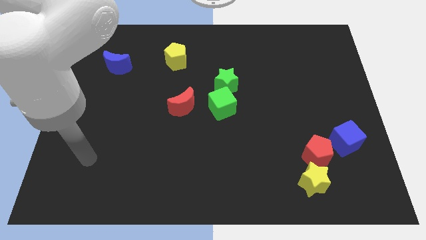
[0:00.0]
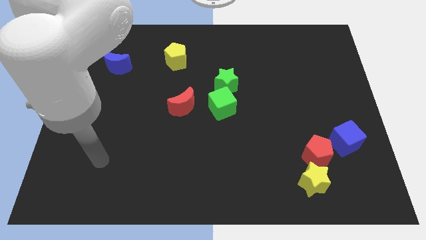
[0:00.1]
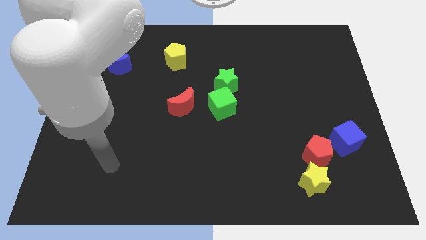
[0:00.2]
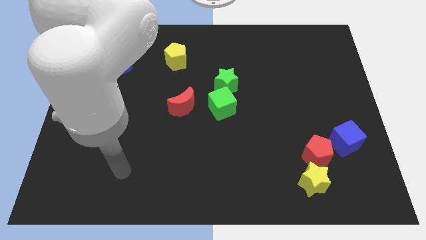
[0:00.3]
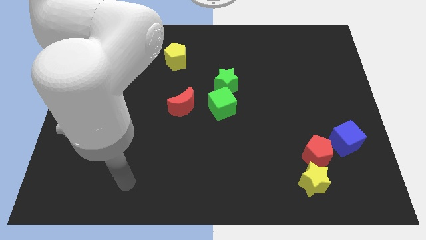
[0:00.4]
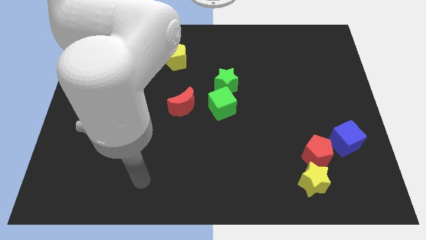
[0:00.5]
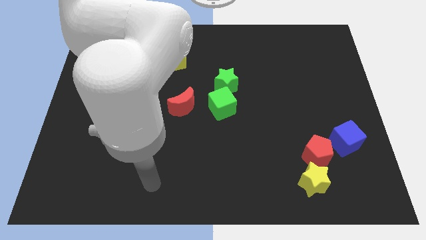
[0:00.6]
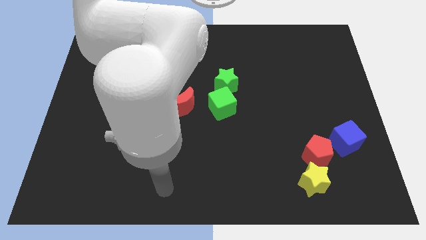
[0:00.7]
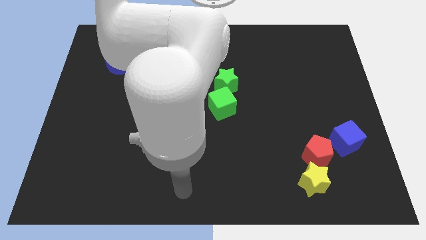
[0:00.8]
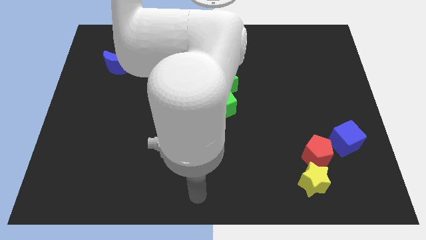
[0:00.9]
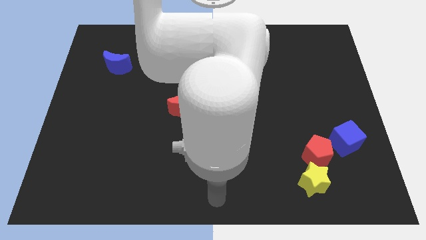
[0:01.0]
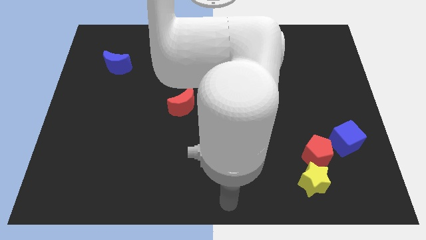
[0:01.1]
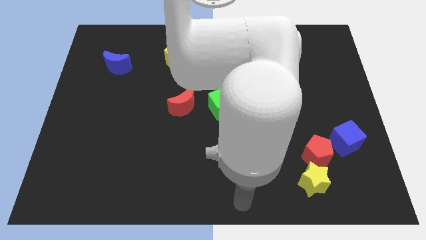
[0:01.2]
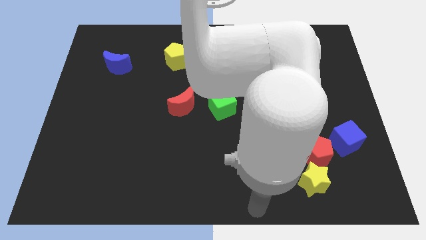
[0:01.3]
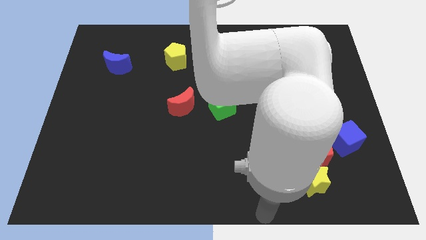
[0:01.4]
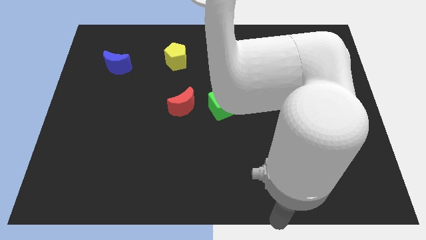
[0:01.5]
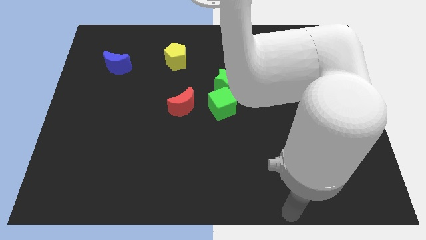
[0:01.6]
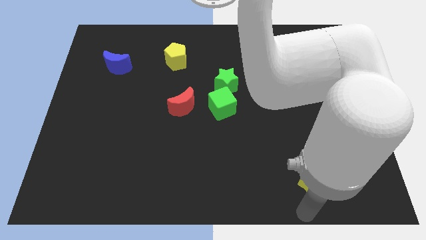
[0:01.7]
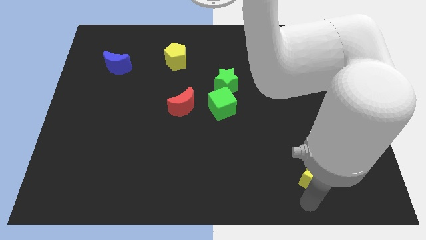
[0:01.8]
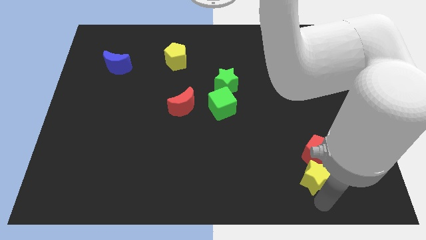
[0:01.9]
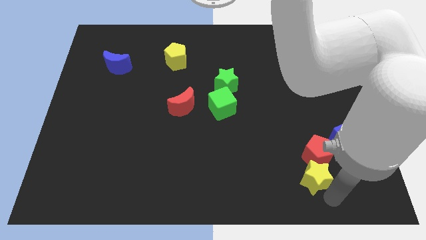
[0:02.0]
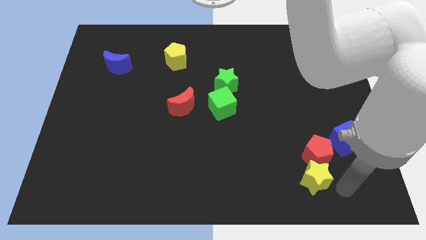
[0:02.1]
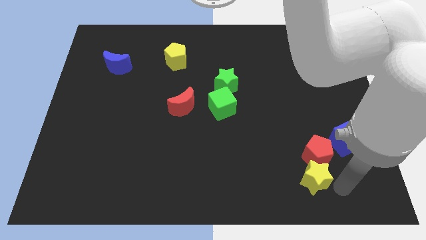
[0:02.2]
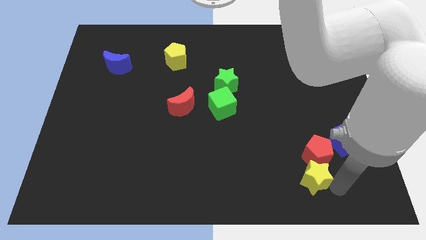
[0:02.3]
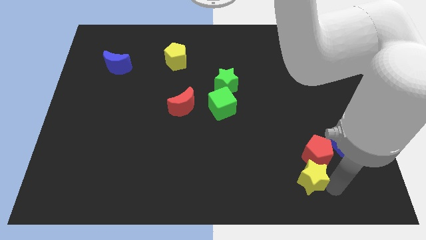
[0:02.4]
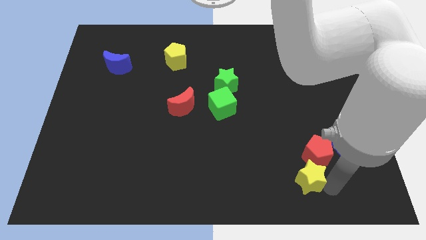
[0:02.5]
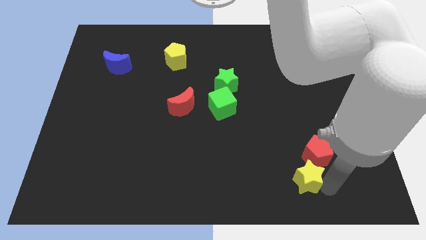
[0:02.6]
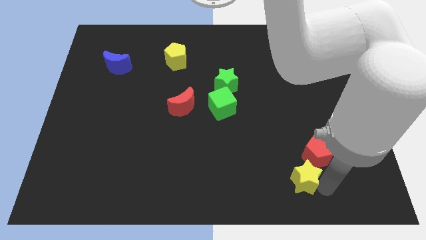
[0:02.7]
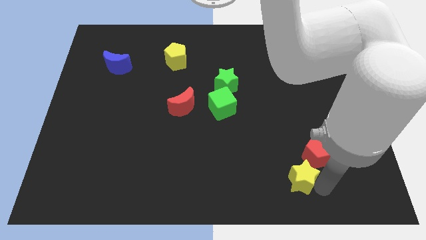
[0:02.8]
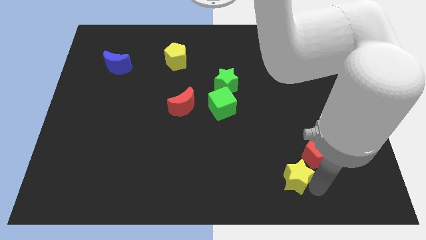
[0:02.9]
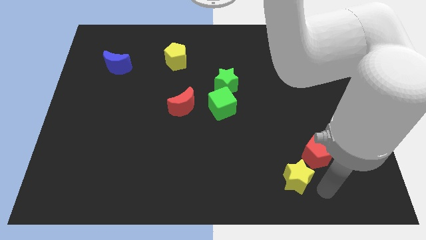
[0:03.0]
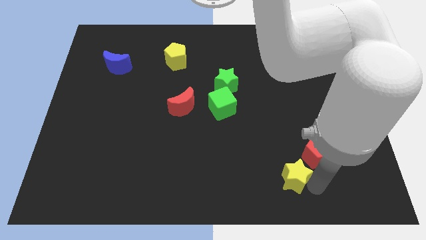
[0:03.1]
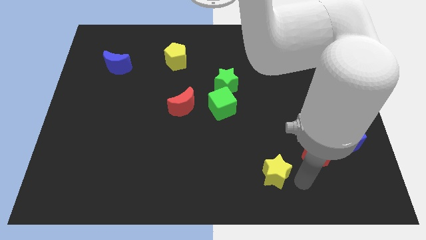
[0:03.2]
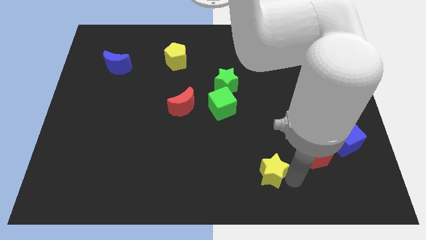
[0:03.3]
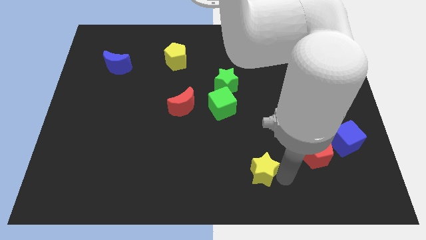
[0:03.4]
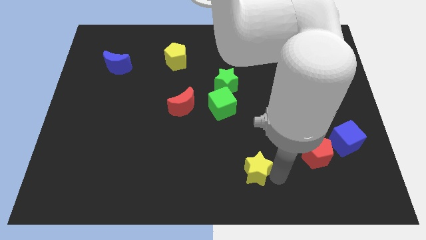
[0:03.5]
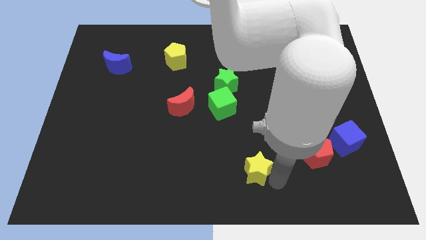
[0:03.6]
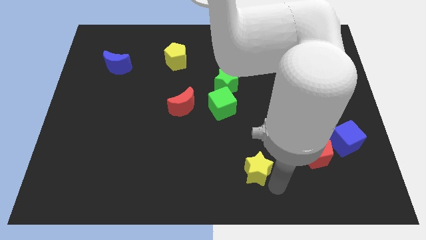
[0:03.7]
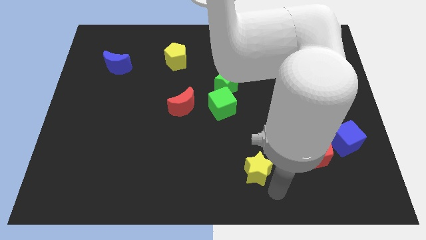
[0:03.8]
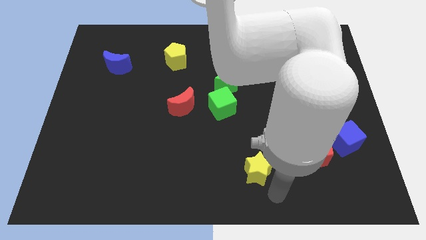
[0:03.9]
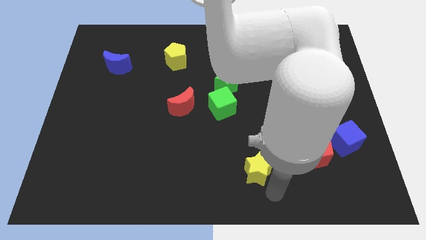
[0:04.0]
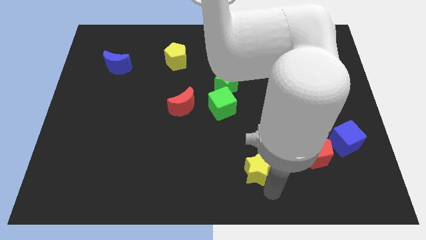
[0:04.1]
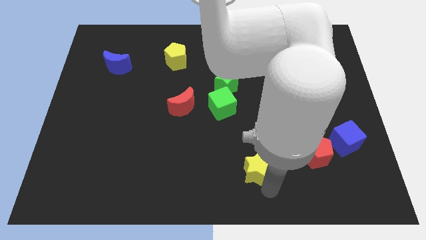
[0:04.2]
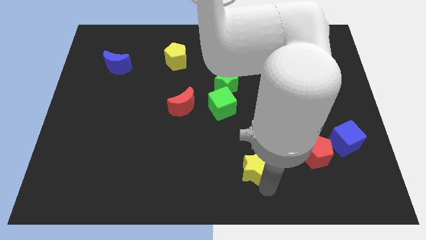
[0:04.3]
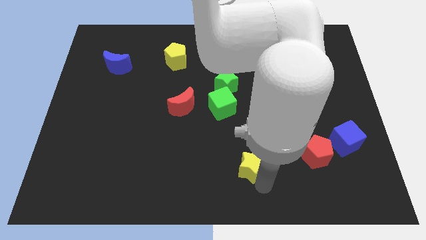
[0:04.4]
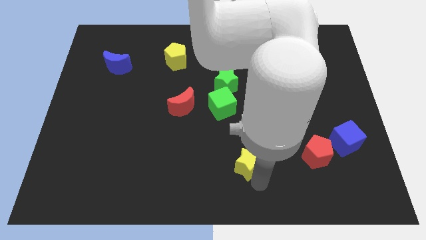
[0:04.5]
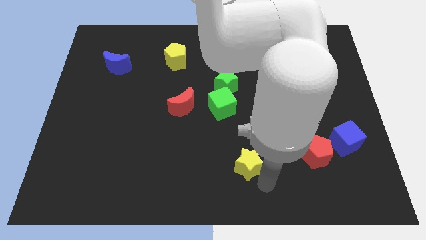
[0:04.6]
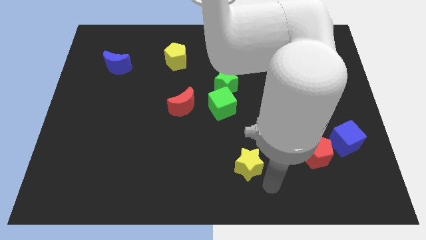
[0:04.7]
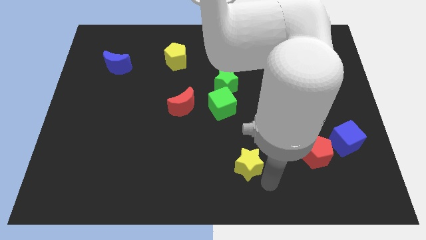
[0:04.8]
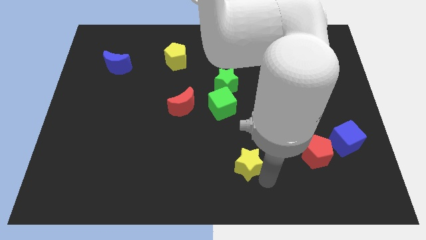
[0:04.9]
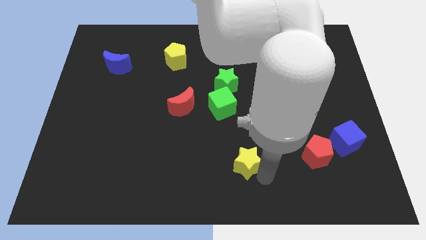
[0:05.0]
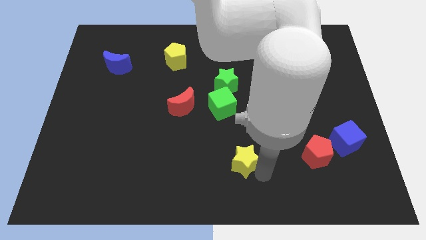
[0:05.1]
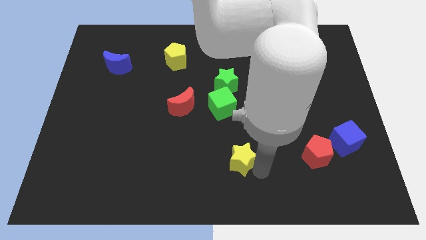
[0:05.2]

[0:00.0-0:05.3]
move the yellow star to the bottom of the green cube

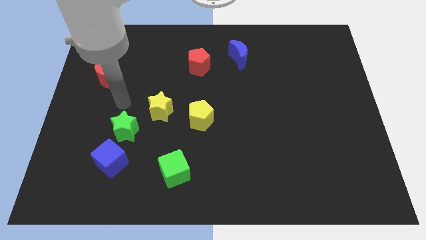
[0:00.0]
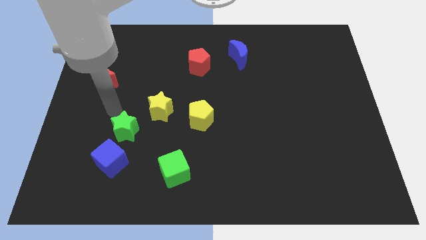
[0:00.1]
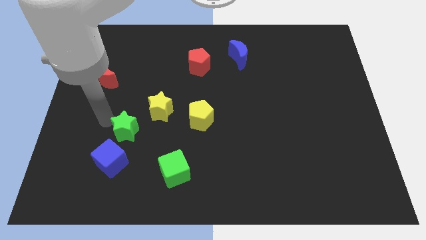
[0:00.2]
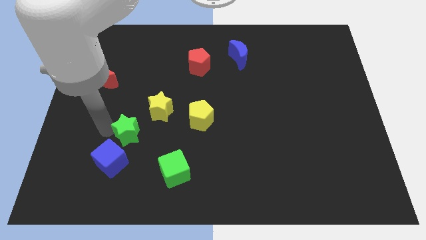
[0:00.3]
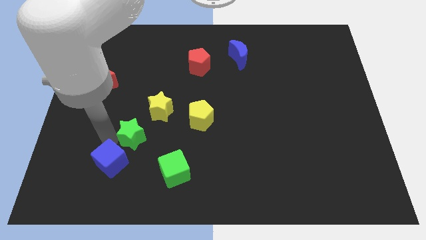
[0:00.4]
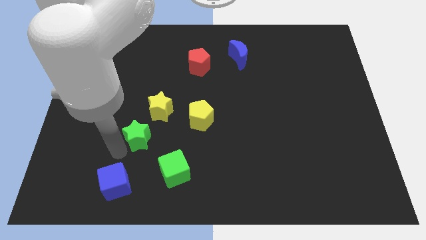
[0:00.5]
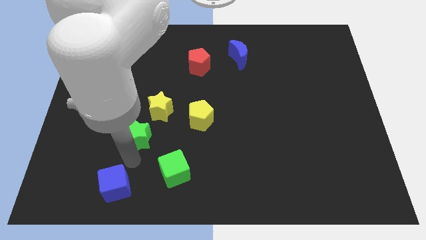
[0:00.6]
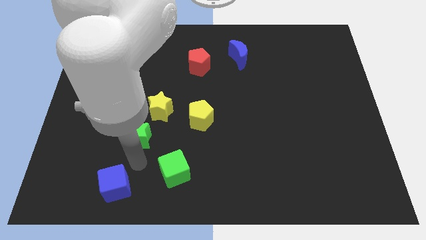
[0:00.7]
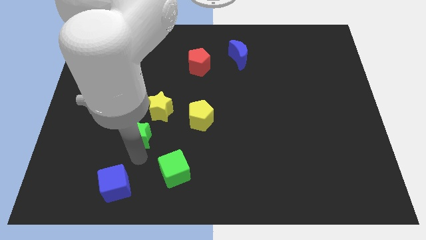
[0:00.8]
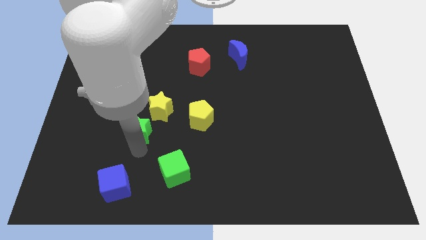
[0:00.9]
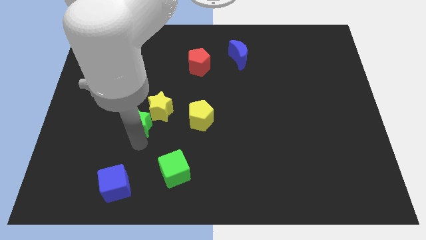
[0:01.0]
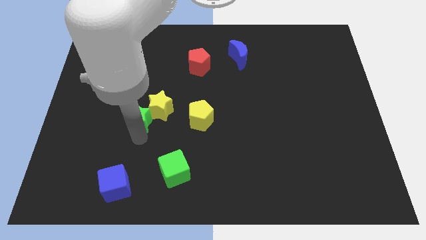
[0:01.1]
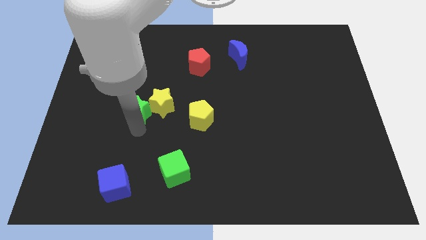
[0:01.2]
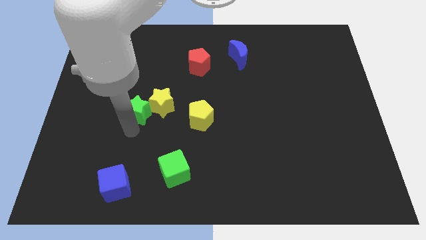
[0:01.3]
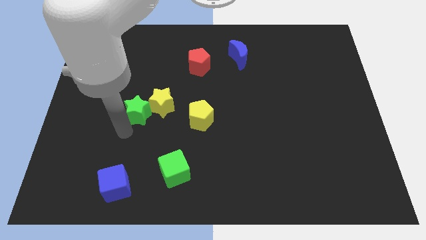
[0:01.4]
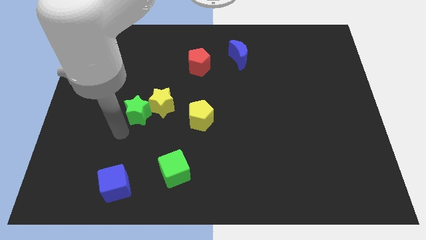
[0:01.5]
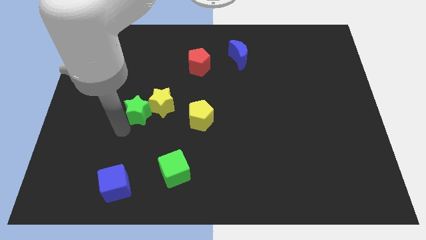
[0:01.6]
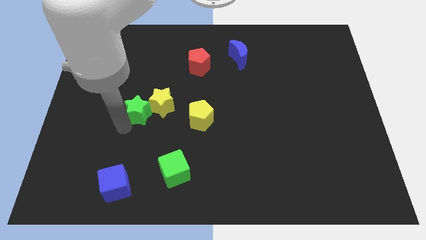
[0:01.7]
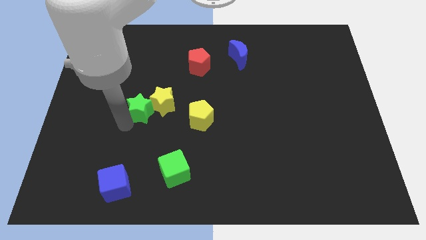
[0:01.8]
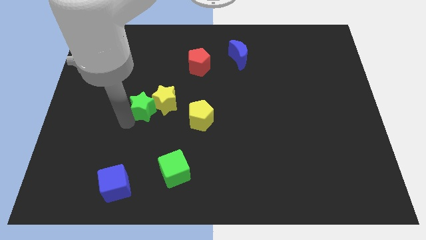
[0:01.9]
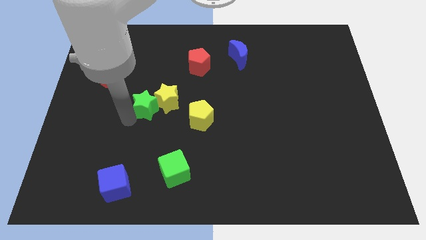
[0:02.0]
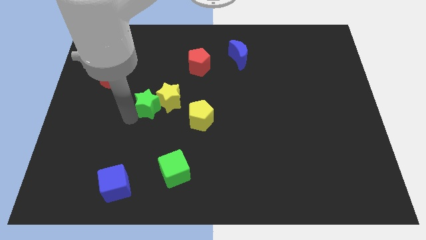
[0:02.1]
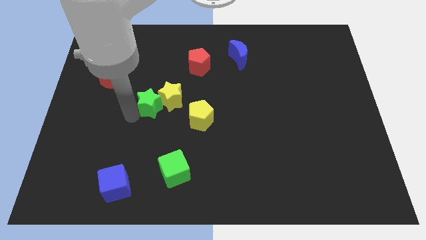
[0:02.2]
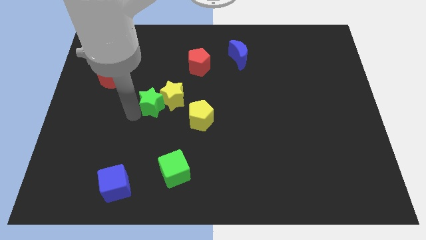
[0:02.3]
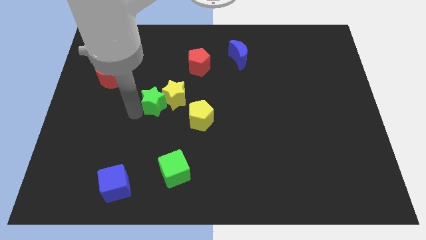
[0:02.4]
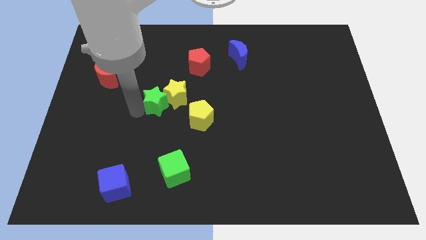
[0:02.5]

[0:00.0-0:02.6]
put the green star diagonally up and to the left of the yellow pentagon
